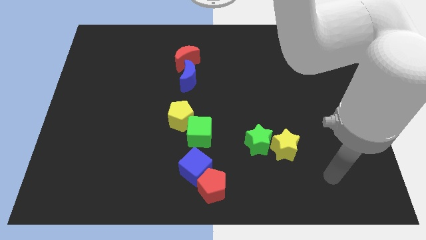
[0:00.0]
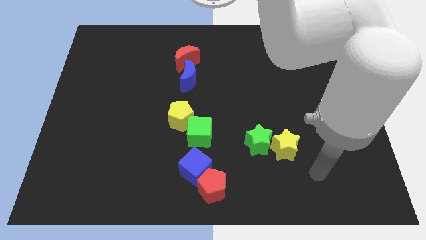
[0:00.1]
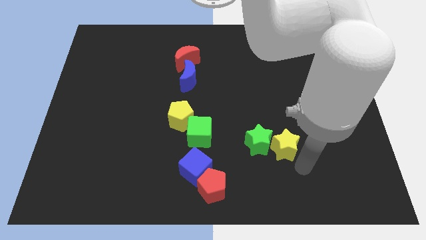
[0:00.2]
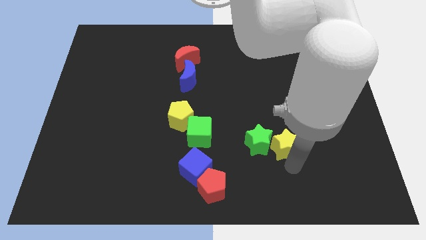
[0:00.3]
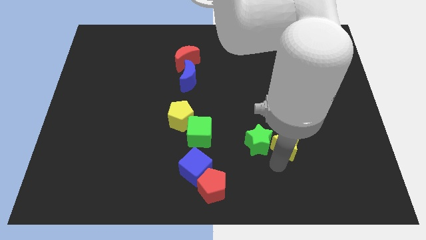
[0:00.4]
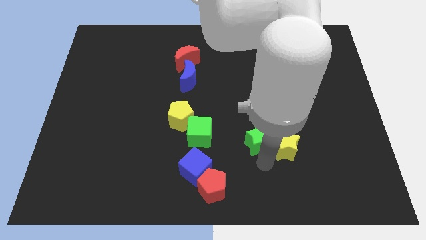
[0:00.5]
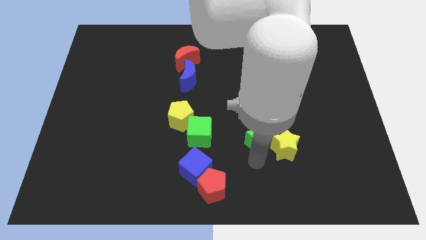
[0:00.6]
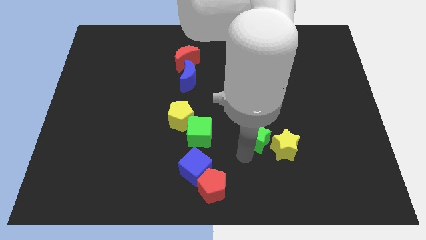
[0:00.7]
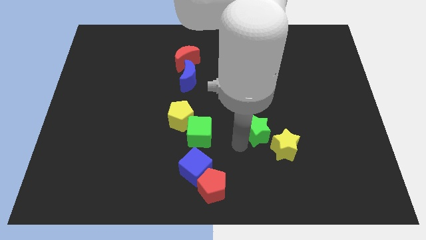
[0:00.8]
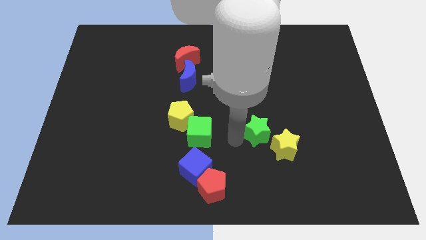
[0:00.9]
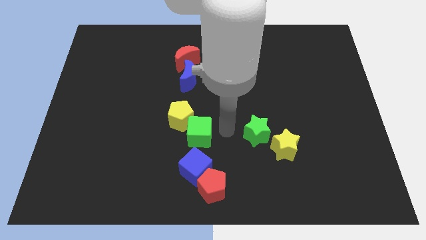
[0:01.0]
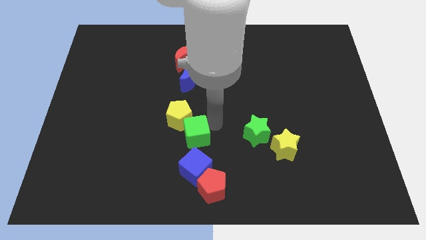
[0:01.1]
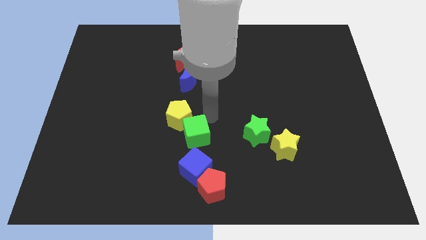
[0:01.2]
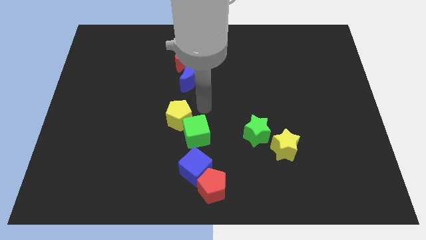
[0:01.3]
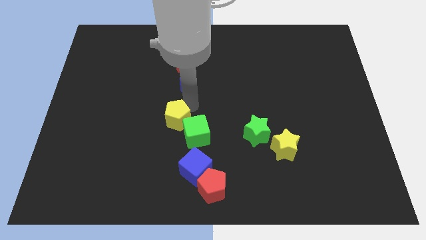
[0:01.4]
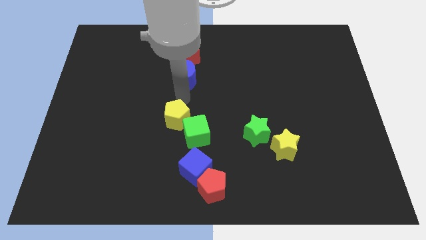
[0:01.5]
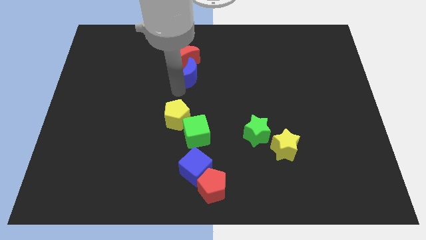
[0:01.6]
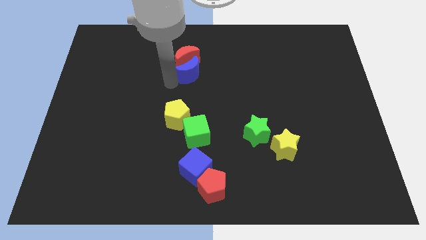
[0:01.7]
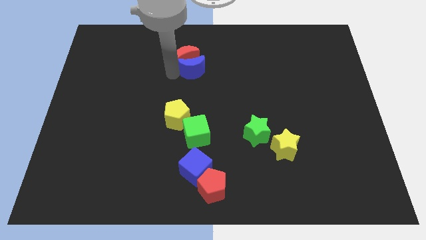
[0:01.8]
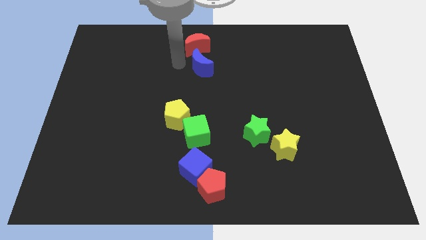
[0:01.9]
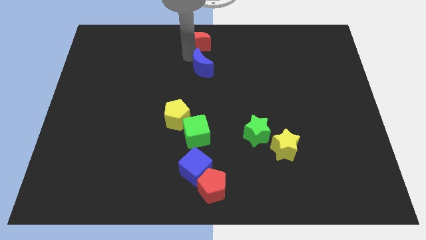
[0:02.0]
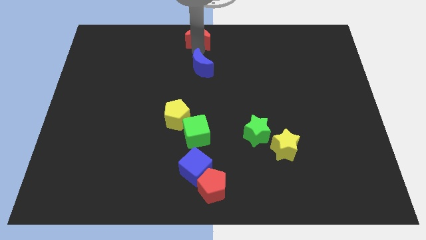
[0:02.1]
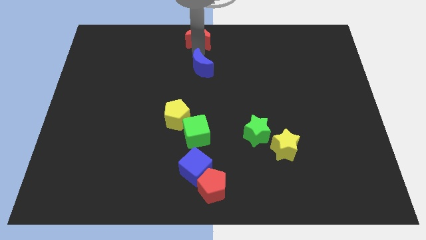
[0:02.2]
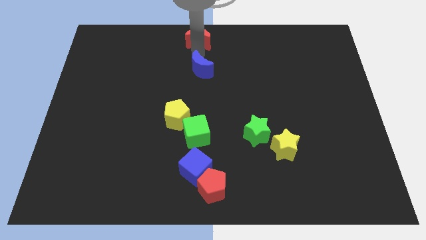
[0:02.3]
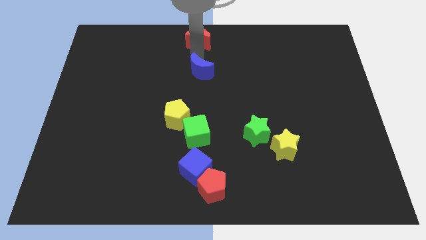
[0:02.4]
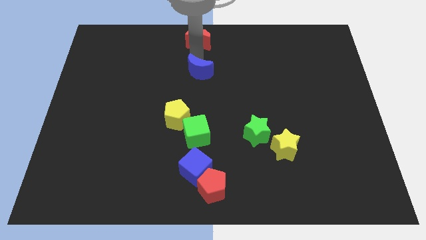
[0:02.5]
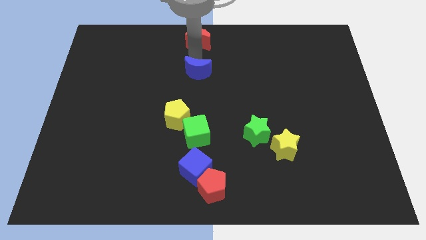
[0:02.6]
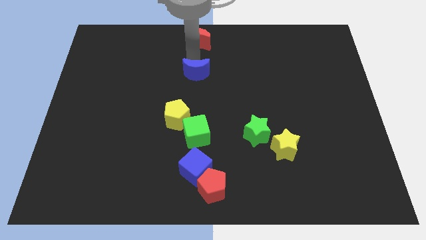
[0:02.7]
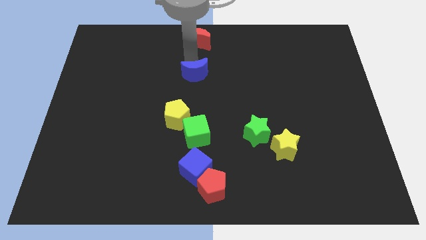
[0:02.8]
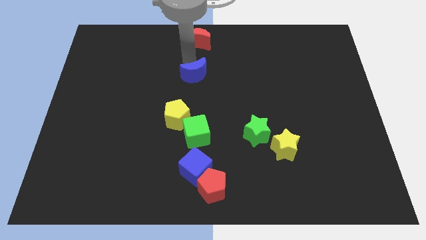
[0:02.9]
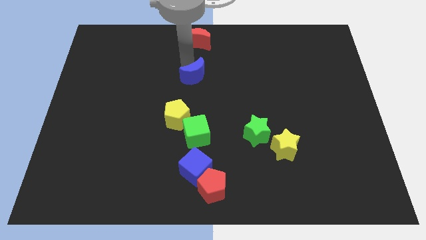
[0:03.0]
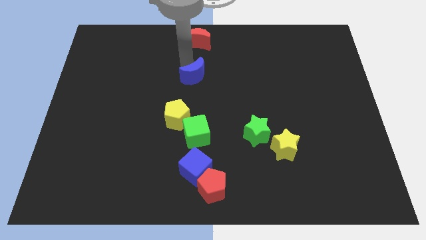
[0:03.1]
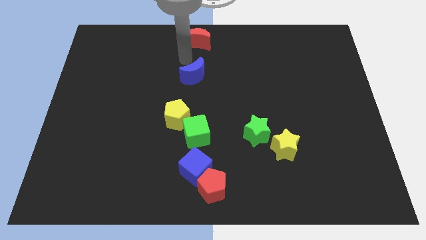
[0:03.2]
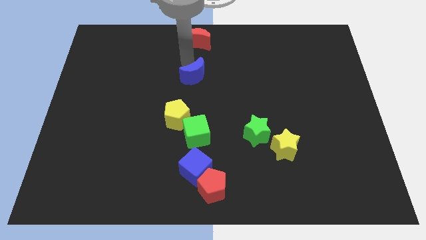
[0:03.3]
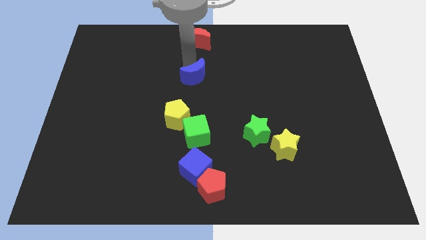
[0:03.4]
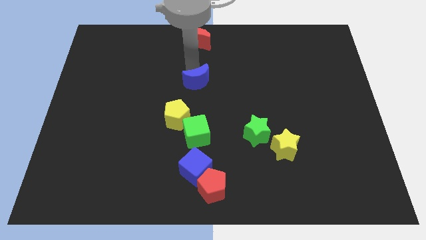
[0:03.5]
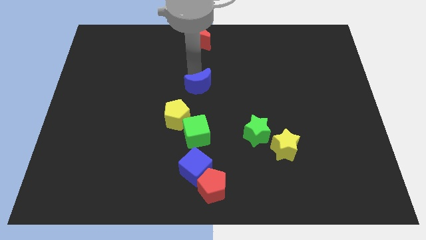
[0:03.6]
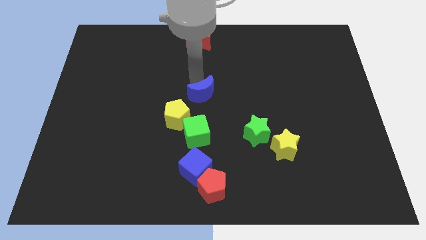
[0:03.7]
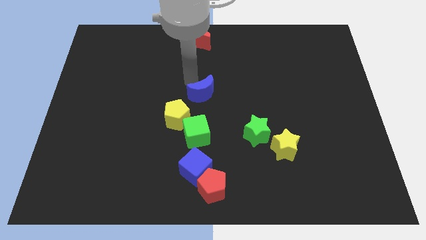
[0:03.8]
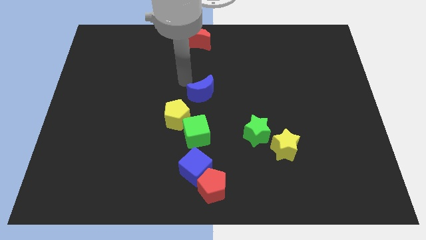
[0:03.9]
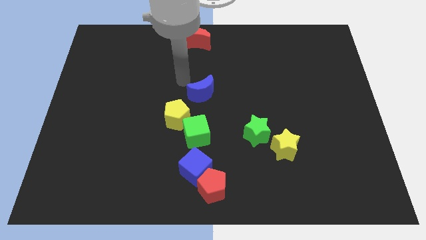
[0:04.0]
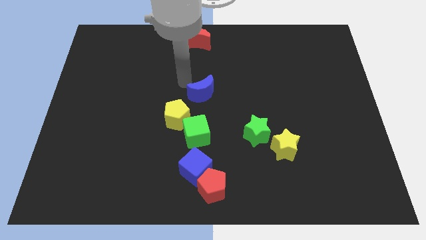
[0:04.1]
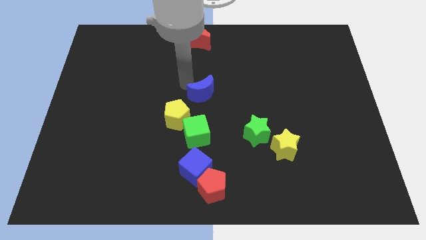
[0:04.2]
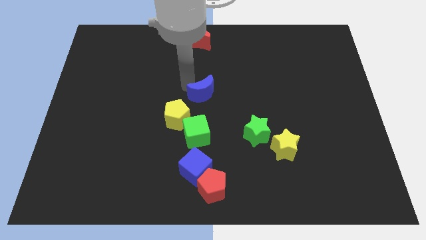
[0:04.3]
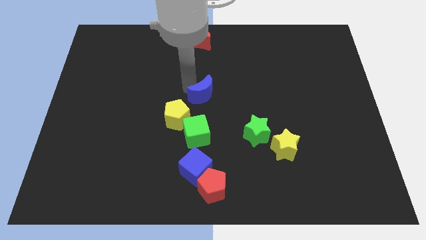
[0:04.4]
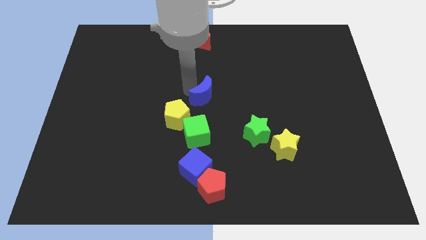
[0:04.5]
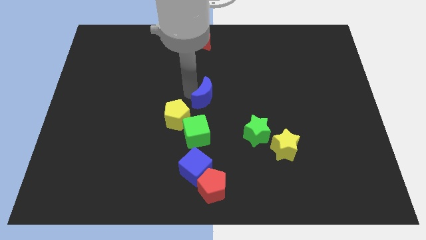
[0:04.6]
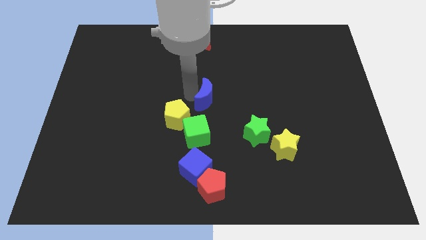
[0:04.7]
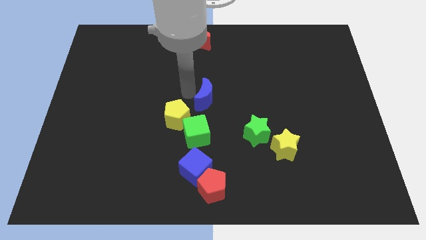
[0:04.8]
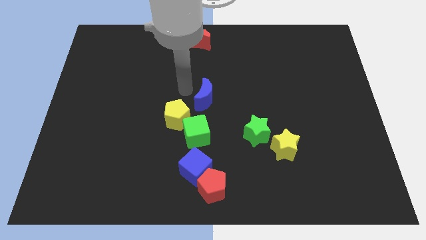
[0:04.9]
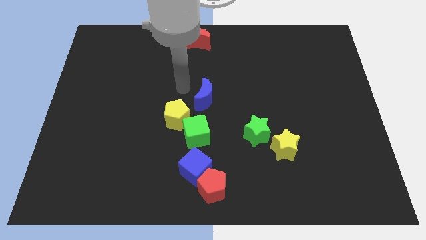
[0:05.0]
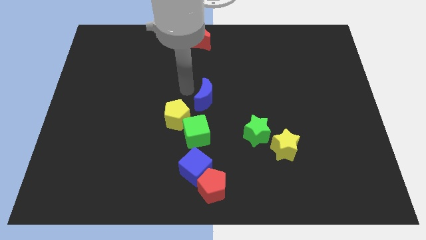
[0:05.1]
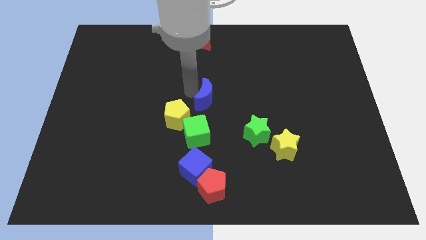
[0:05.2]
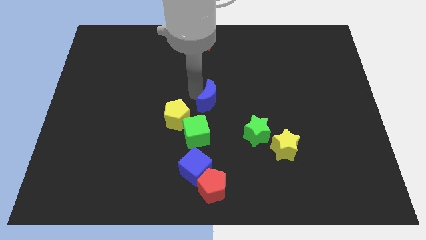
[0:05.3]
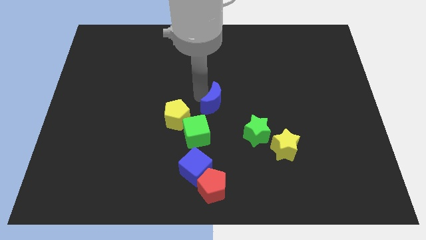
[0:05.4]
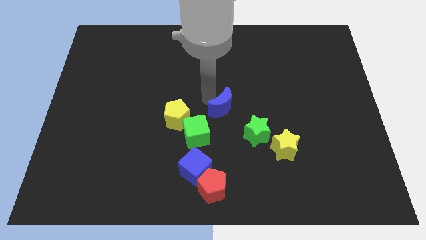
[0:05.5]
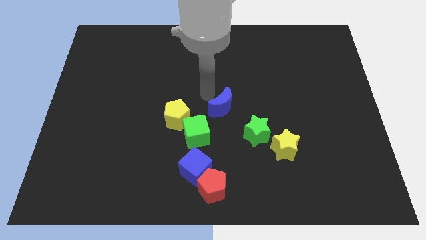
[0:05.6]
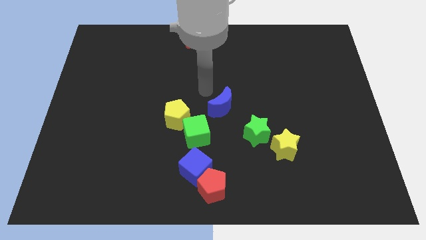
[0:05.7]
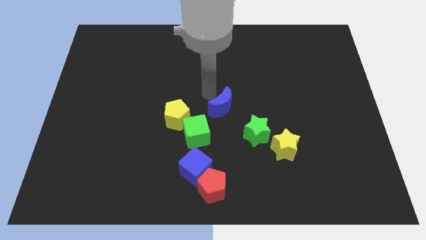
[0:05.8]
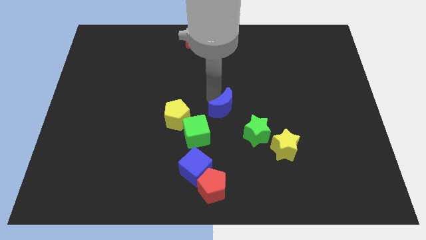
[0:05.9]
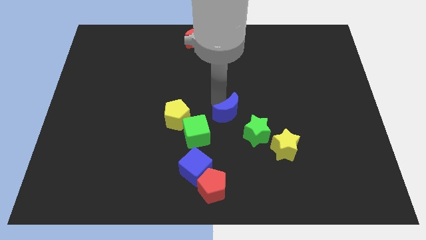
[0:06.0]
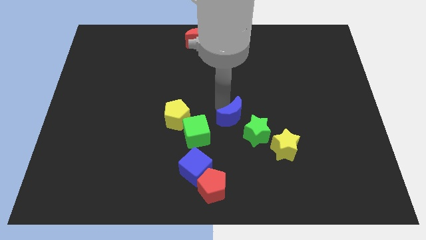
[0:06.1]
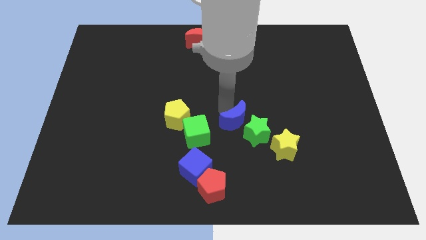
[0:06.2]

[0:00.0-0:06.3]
slide the blue moon next to the green star

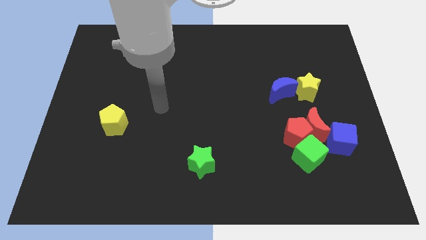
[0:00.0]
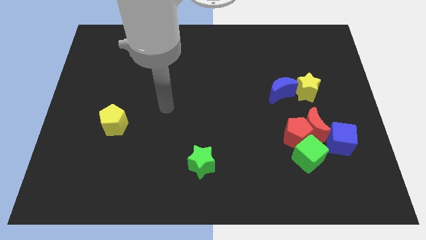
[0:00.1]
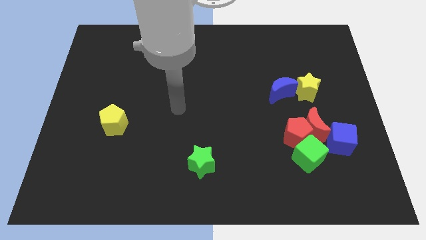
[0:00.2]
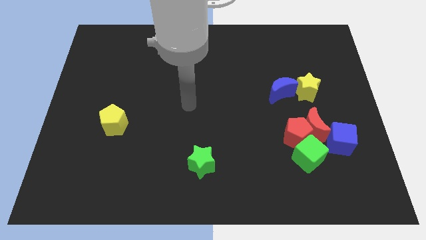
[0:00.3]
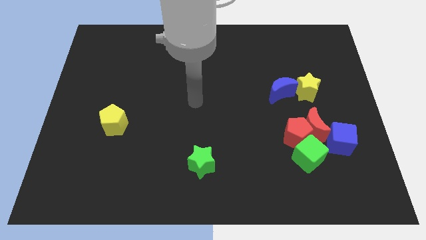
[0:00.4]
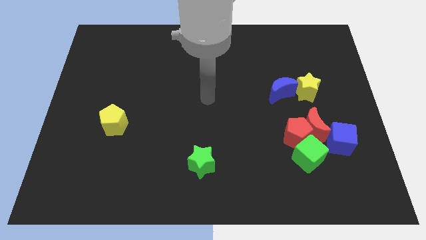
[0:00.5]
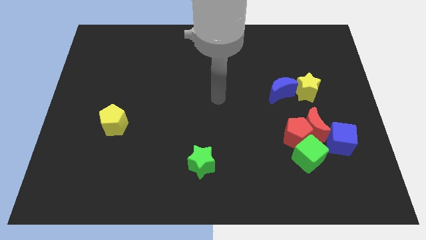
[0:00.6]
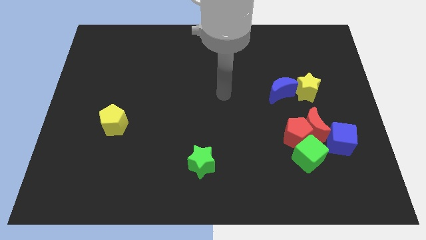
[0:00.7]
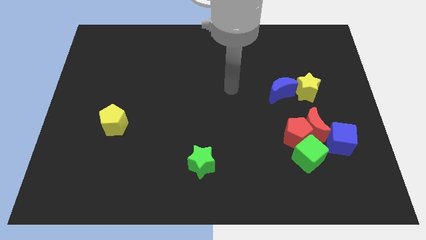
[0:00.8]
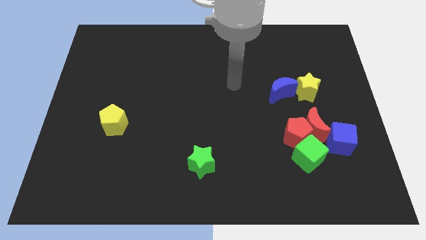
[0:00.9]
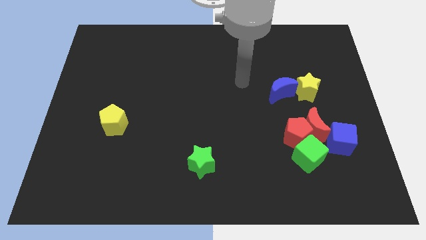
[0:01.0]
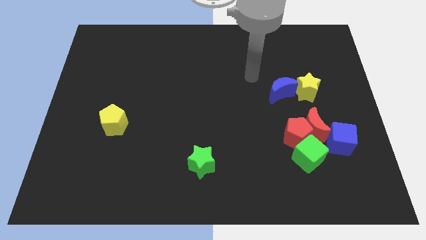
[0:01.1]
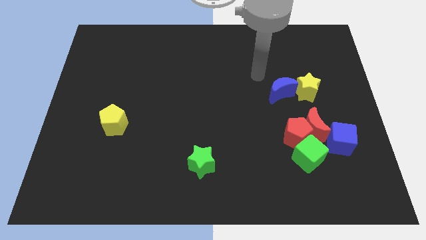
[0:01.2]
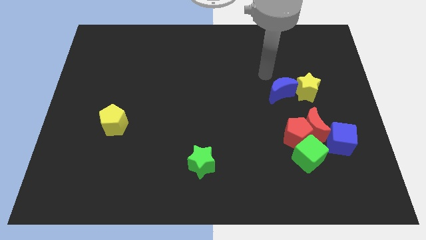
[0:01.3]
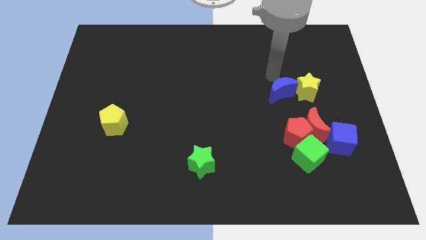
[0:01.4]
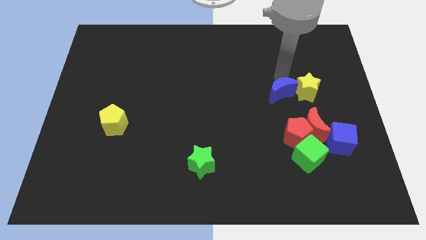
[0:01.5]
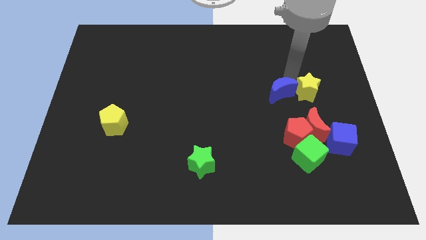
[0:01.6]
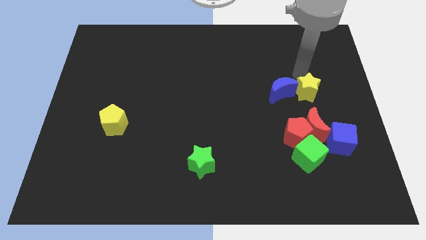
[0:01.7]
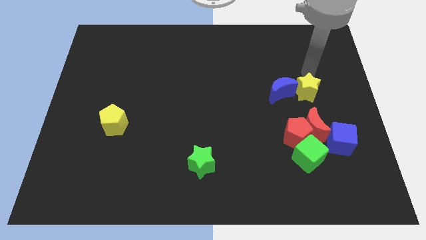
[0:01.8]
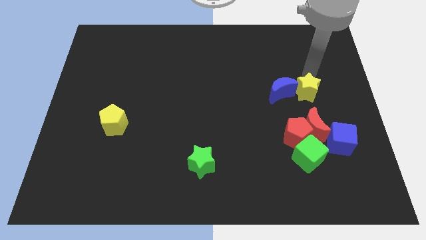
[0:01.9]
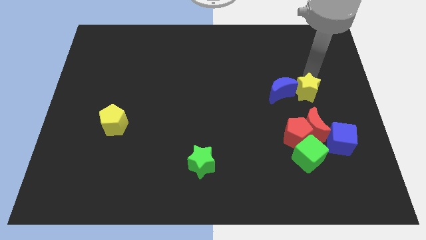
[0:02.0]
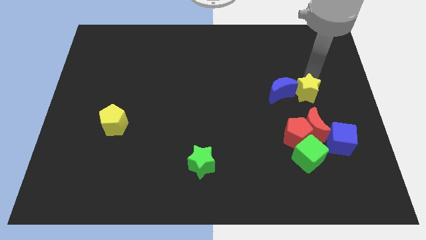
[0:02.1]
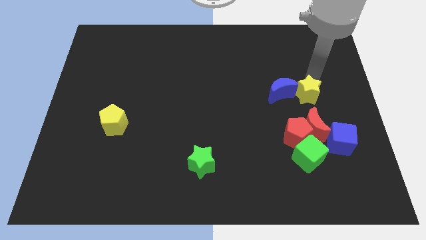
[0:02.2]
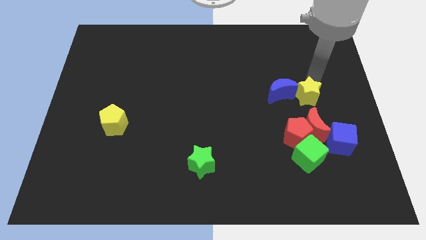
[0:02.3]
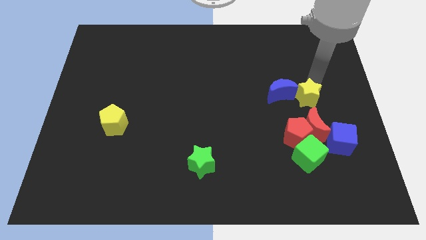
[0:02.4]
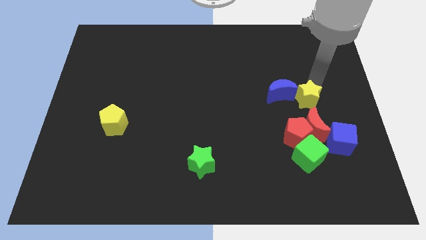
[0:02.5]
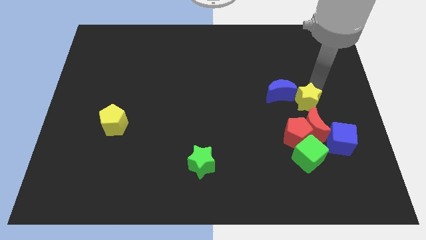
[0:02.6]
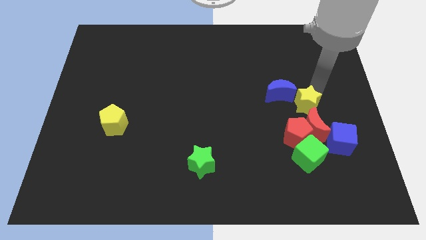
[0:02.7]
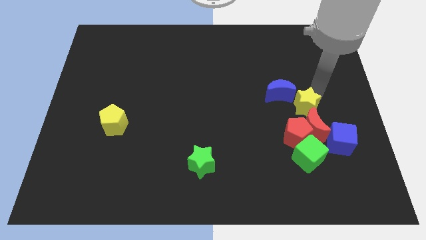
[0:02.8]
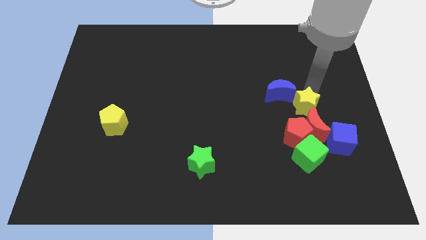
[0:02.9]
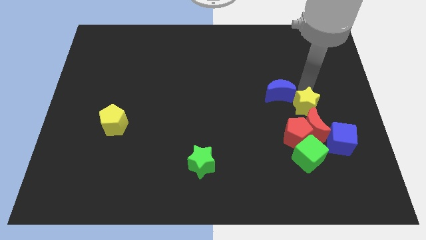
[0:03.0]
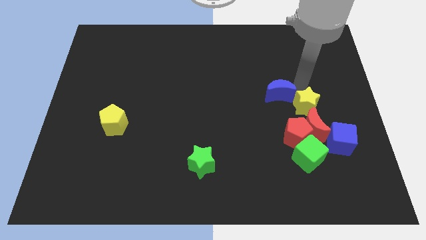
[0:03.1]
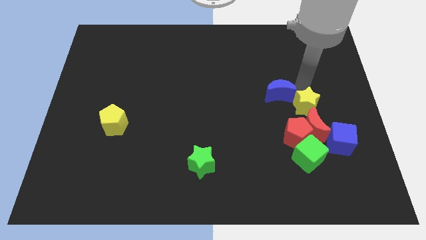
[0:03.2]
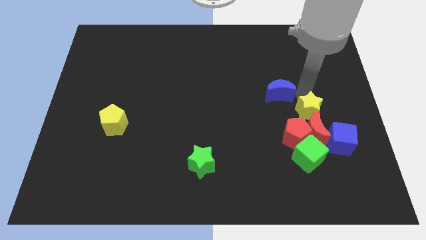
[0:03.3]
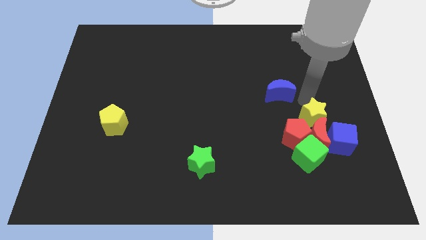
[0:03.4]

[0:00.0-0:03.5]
put the yellow star towards the red moon
